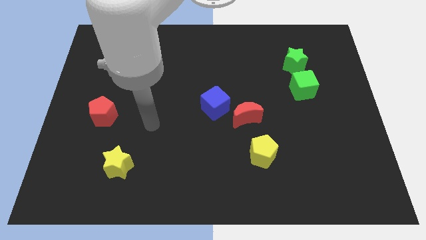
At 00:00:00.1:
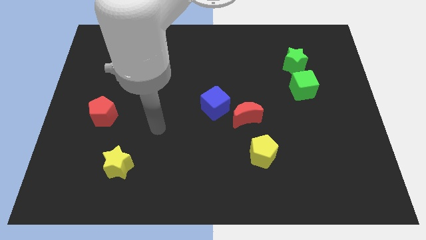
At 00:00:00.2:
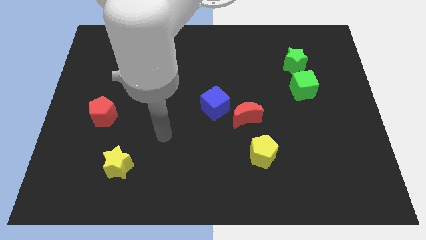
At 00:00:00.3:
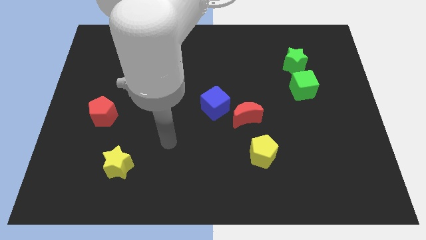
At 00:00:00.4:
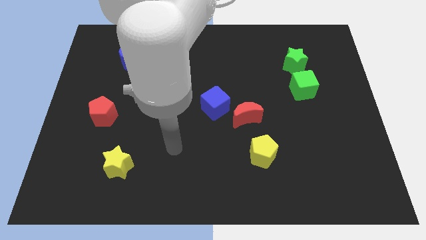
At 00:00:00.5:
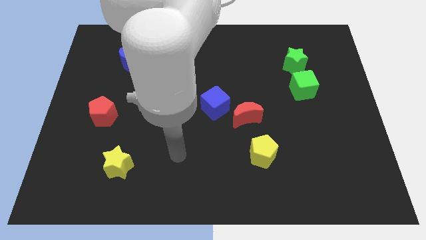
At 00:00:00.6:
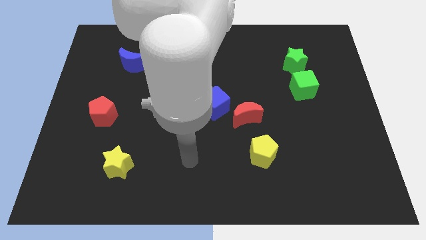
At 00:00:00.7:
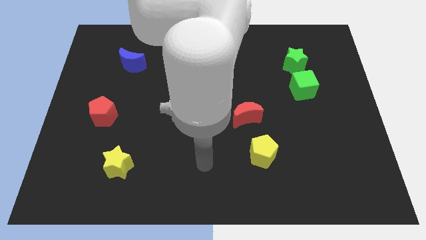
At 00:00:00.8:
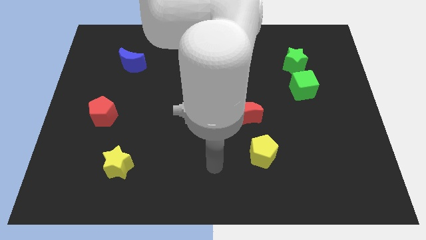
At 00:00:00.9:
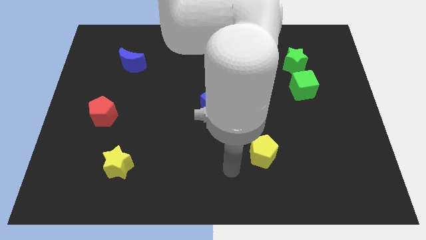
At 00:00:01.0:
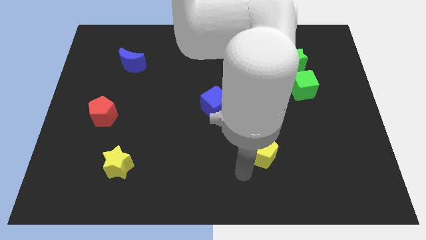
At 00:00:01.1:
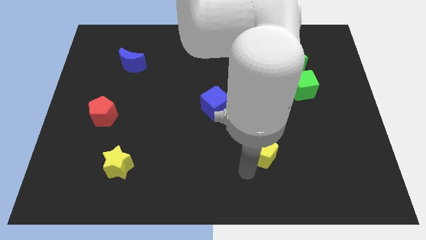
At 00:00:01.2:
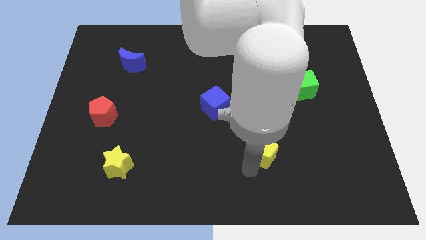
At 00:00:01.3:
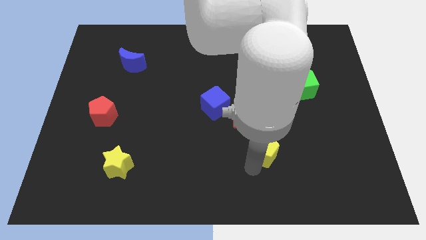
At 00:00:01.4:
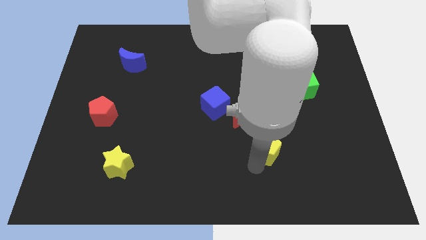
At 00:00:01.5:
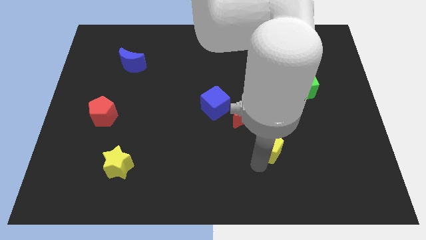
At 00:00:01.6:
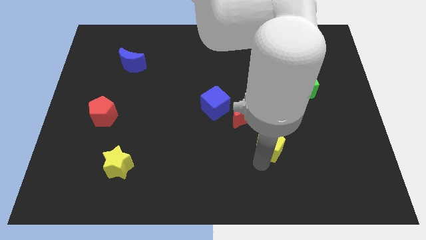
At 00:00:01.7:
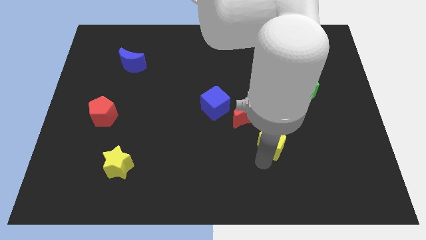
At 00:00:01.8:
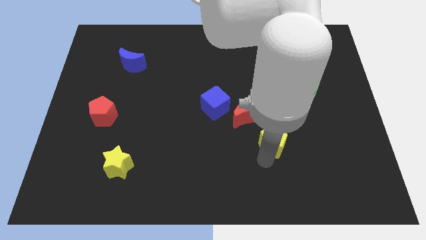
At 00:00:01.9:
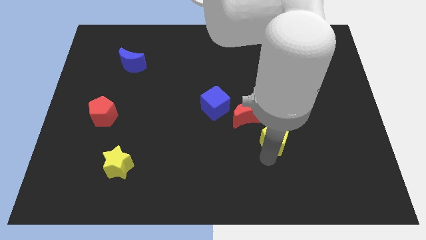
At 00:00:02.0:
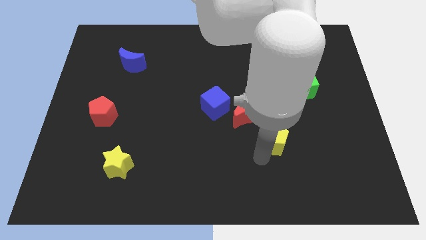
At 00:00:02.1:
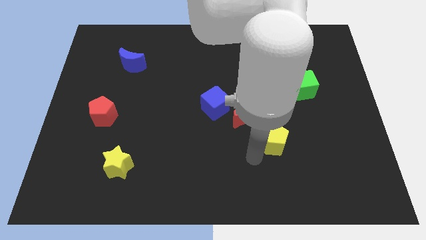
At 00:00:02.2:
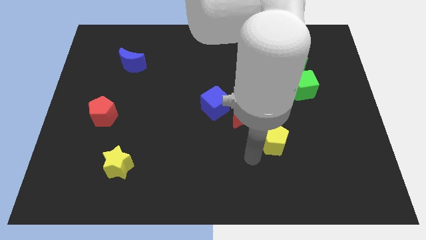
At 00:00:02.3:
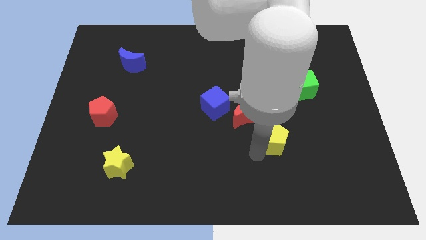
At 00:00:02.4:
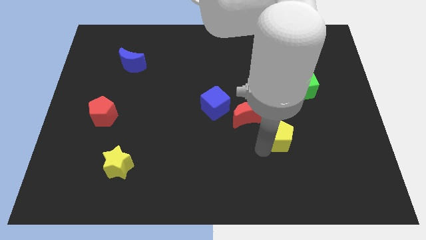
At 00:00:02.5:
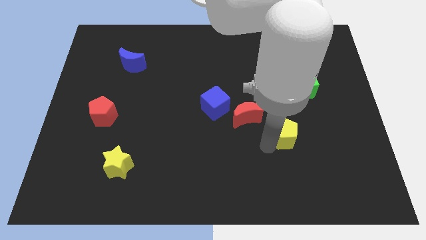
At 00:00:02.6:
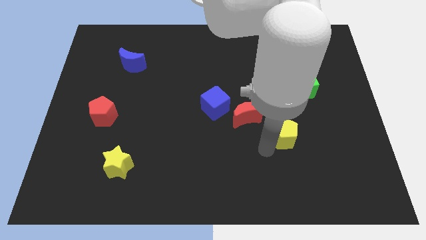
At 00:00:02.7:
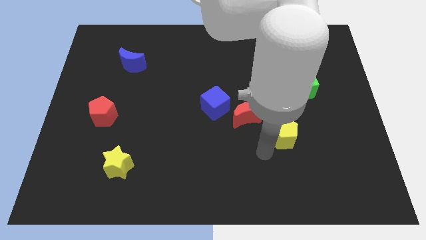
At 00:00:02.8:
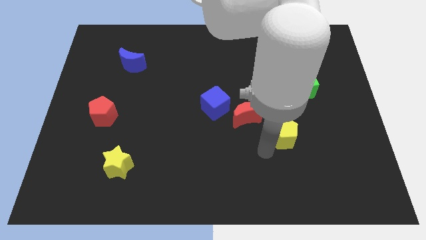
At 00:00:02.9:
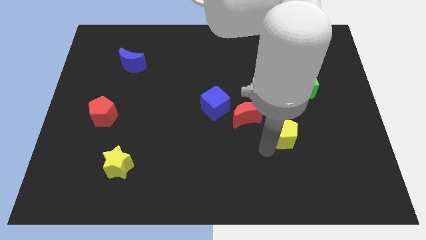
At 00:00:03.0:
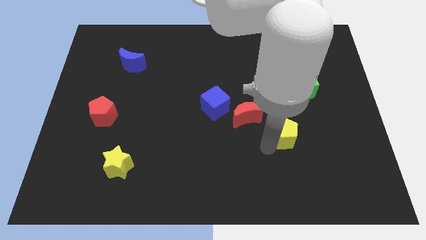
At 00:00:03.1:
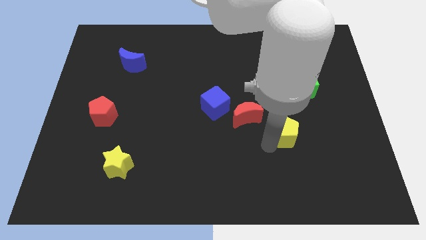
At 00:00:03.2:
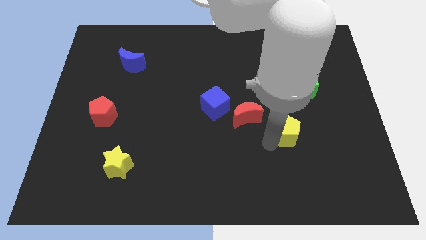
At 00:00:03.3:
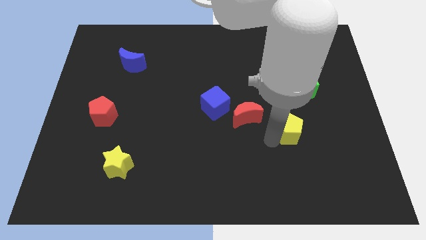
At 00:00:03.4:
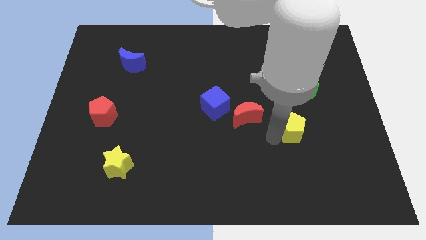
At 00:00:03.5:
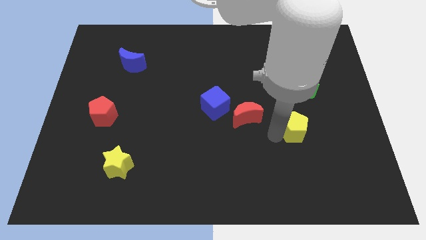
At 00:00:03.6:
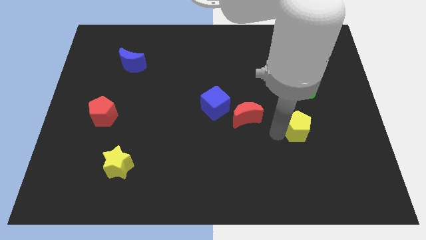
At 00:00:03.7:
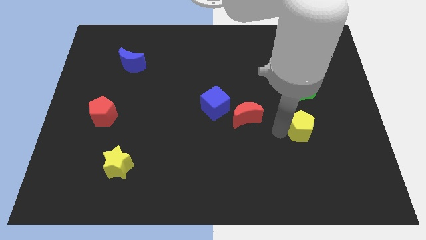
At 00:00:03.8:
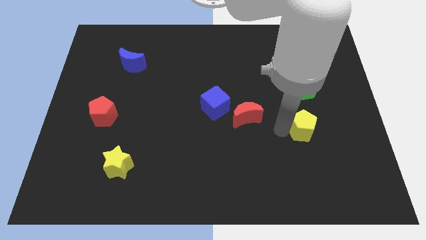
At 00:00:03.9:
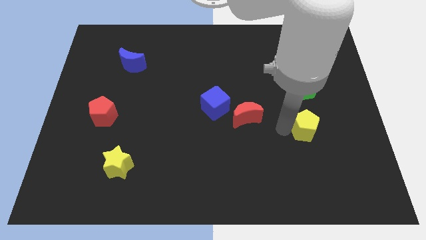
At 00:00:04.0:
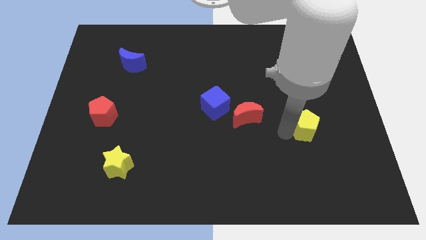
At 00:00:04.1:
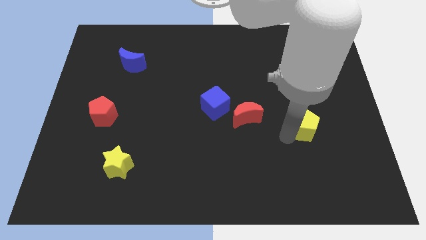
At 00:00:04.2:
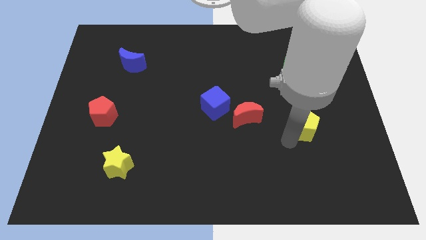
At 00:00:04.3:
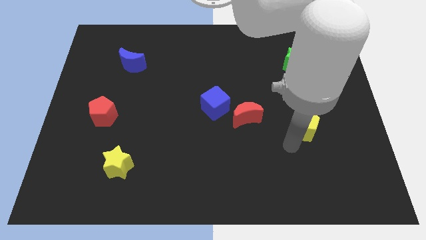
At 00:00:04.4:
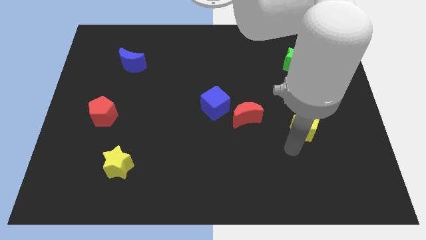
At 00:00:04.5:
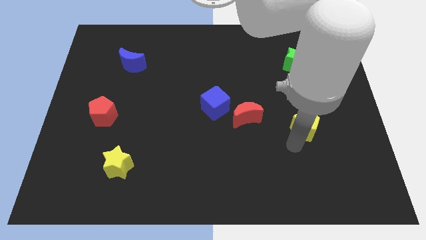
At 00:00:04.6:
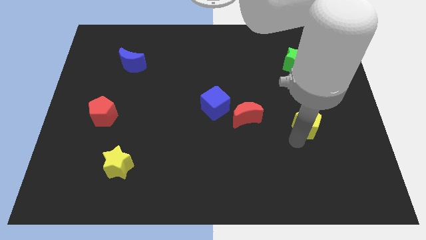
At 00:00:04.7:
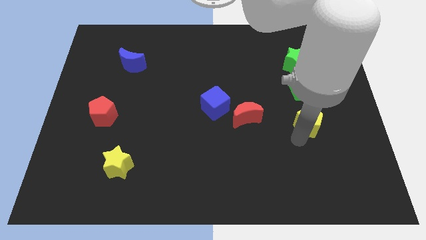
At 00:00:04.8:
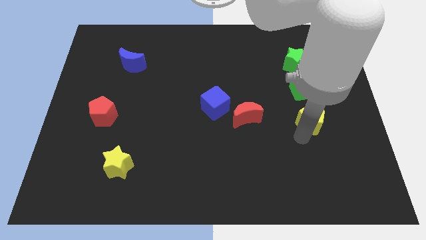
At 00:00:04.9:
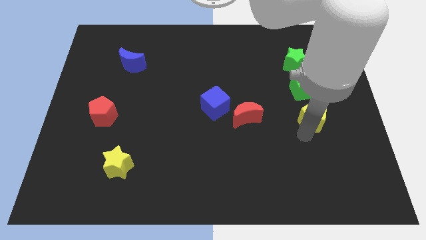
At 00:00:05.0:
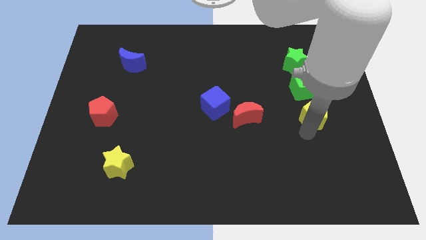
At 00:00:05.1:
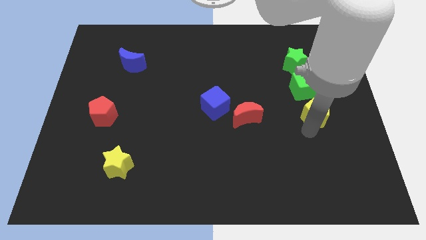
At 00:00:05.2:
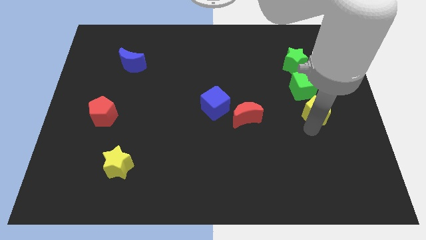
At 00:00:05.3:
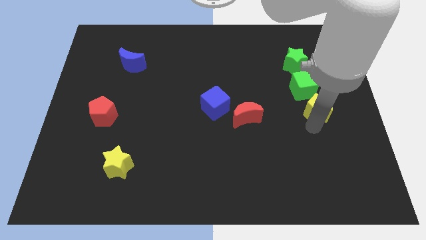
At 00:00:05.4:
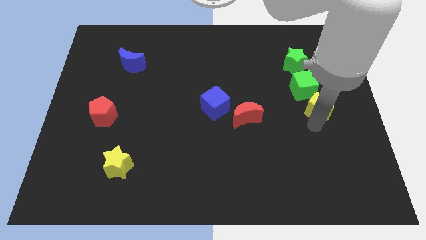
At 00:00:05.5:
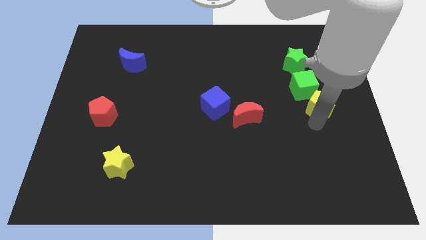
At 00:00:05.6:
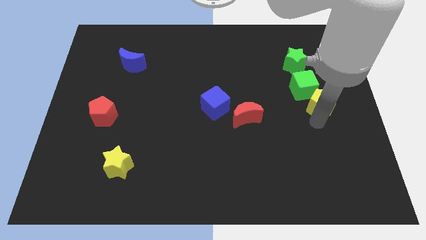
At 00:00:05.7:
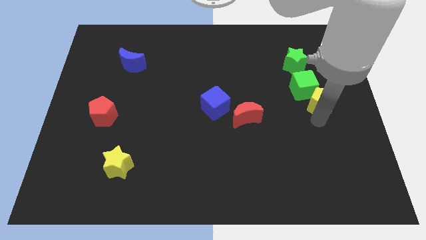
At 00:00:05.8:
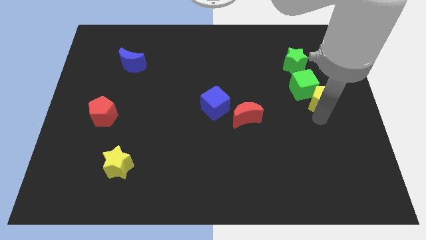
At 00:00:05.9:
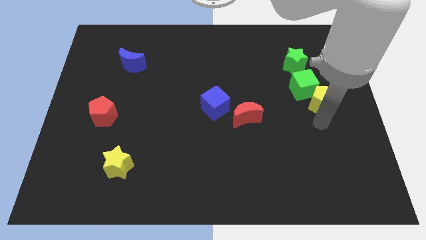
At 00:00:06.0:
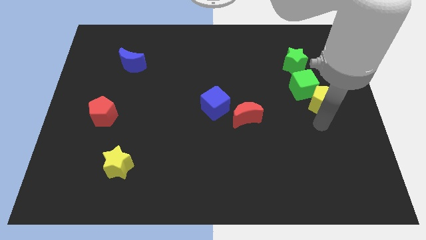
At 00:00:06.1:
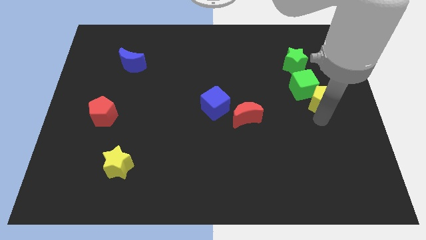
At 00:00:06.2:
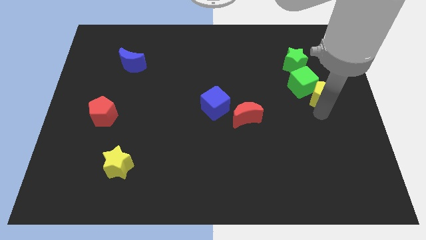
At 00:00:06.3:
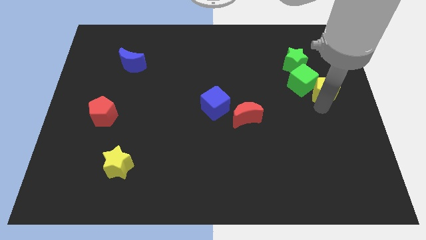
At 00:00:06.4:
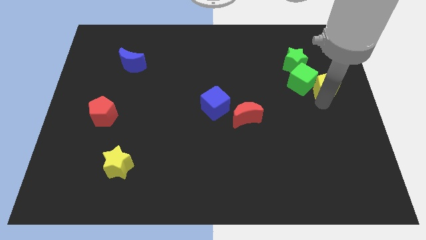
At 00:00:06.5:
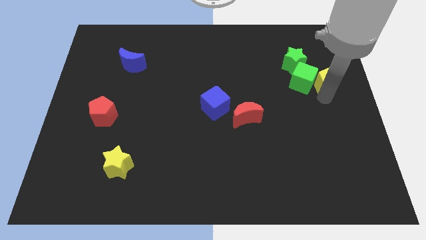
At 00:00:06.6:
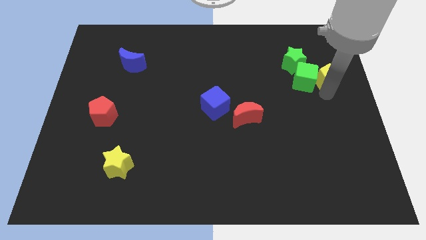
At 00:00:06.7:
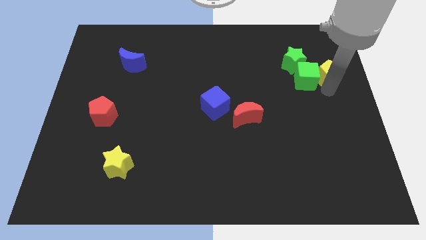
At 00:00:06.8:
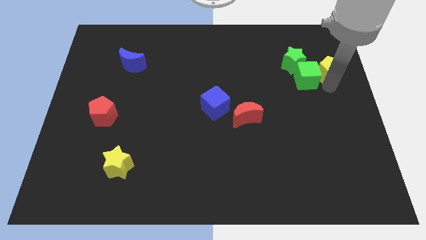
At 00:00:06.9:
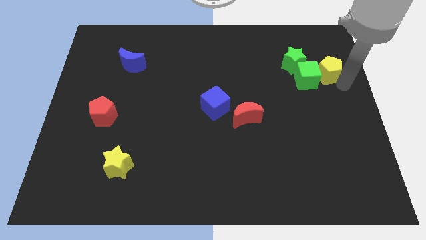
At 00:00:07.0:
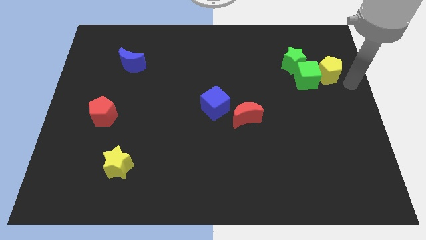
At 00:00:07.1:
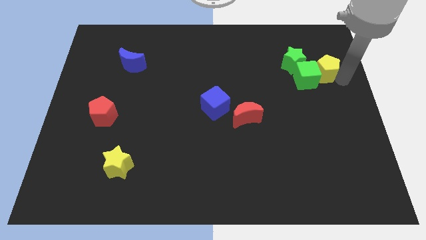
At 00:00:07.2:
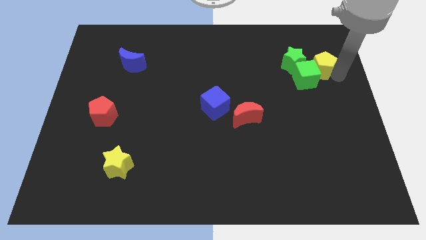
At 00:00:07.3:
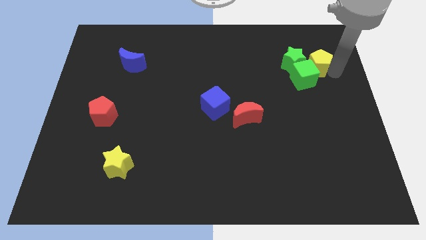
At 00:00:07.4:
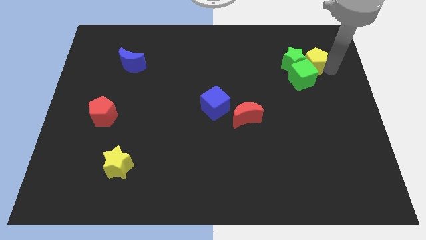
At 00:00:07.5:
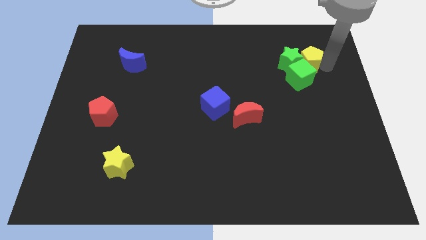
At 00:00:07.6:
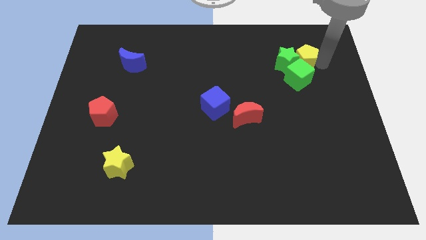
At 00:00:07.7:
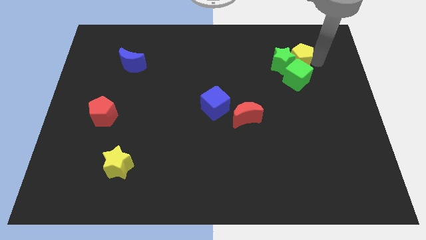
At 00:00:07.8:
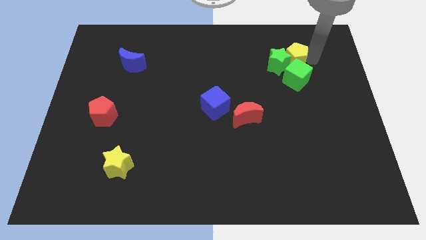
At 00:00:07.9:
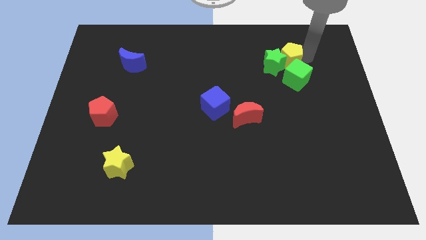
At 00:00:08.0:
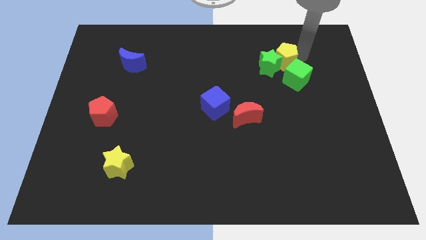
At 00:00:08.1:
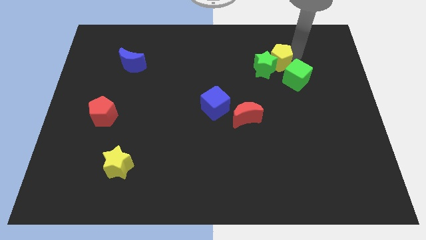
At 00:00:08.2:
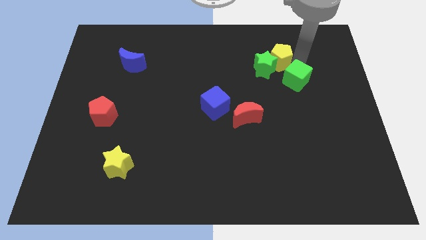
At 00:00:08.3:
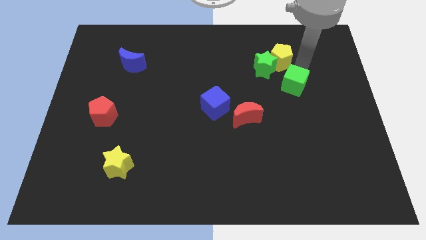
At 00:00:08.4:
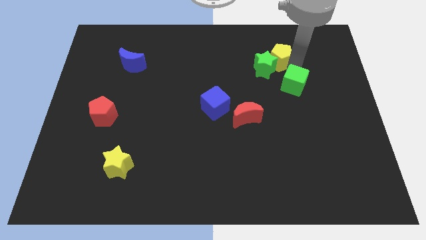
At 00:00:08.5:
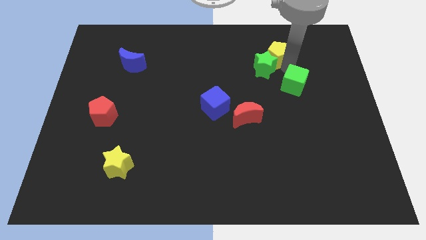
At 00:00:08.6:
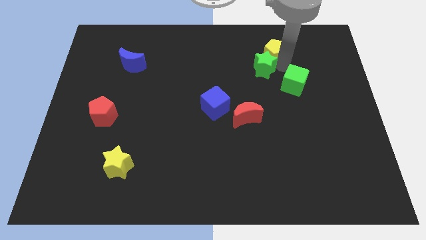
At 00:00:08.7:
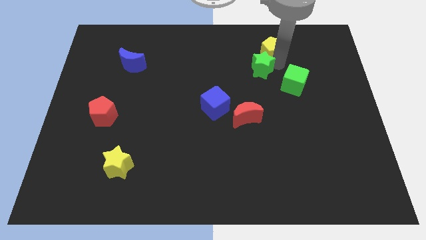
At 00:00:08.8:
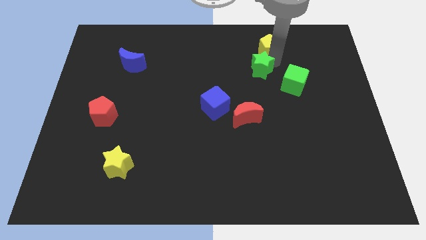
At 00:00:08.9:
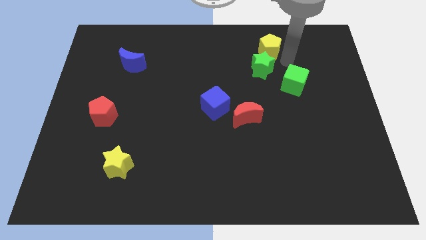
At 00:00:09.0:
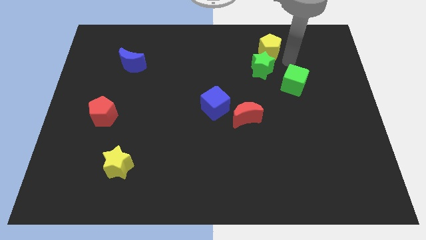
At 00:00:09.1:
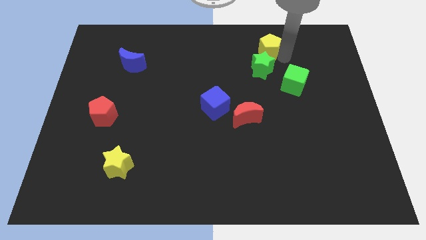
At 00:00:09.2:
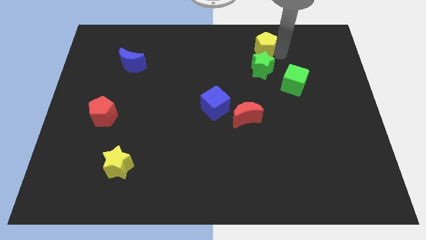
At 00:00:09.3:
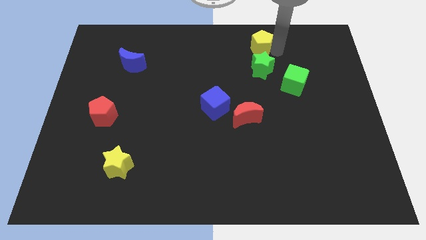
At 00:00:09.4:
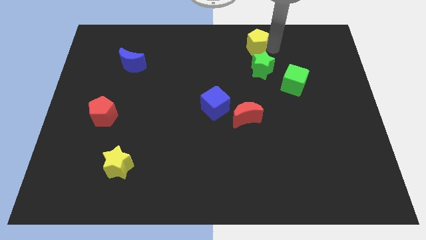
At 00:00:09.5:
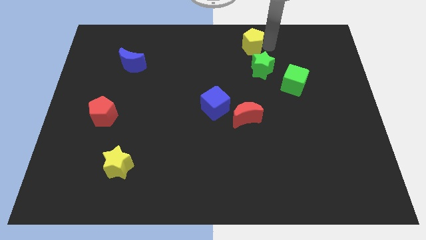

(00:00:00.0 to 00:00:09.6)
put the yellow pentagon to the top
